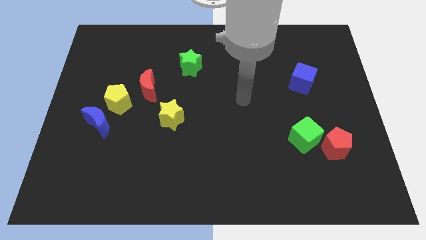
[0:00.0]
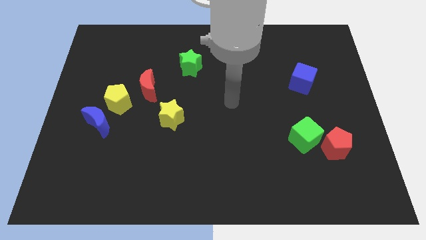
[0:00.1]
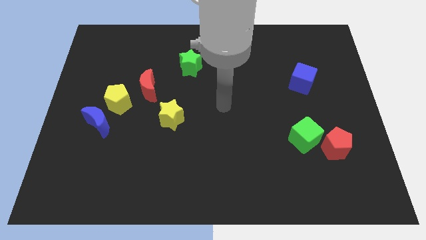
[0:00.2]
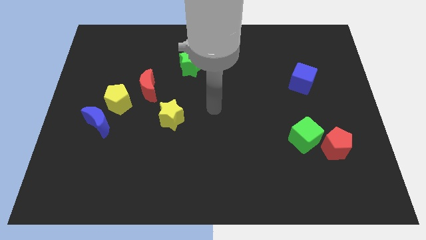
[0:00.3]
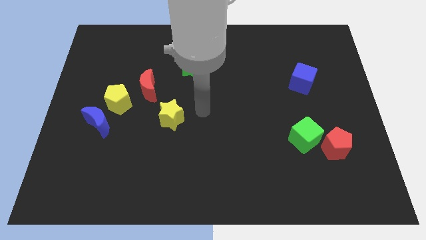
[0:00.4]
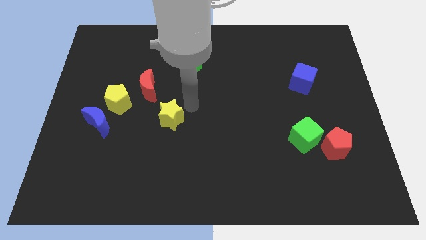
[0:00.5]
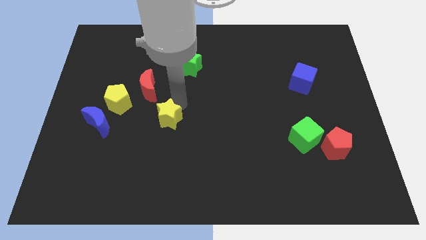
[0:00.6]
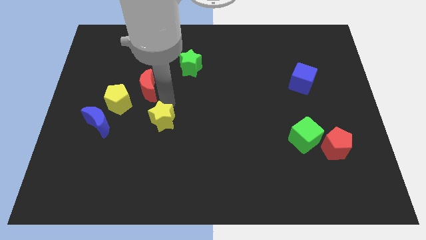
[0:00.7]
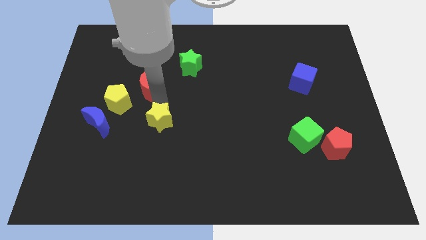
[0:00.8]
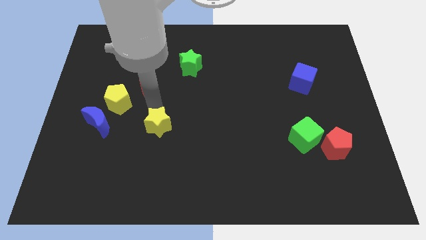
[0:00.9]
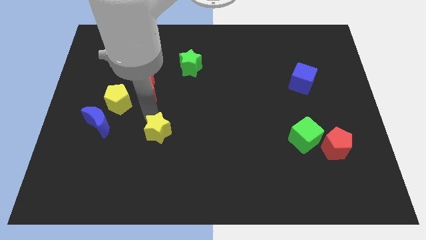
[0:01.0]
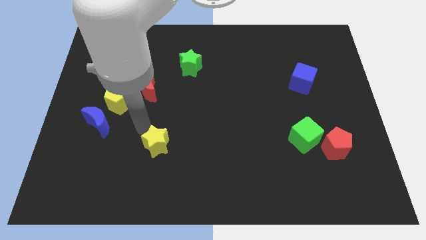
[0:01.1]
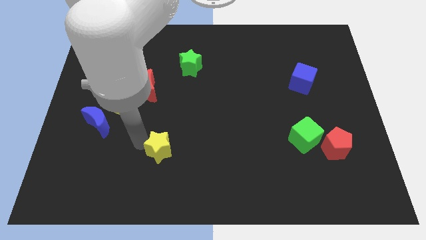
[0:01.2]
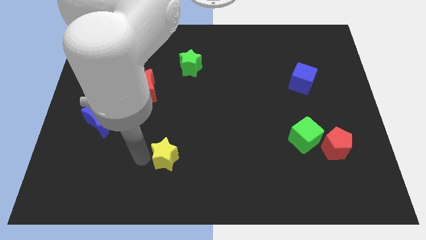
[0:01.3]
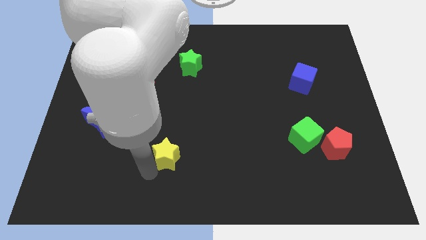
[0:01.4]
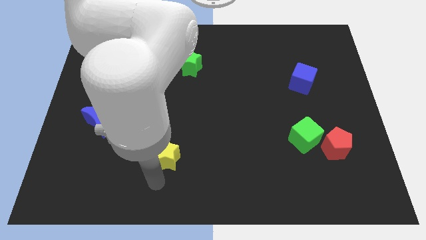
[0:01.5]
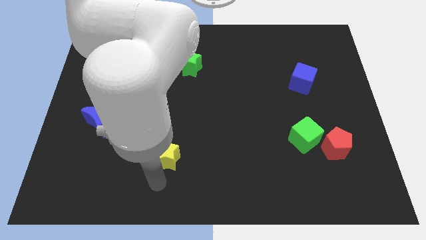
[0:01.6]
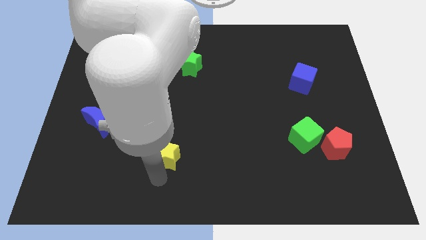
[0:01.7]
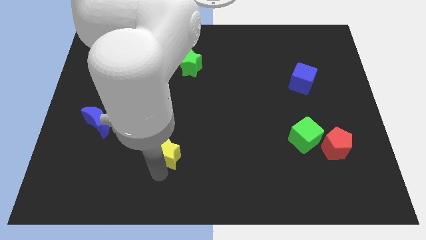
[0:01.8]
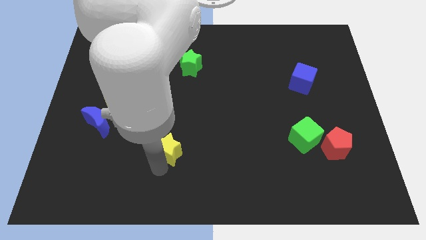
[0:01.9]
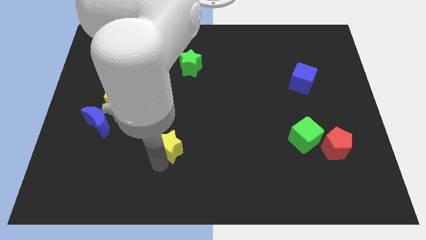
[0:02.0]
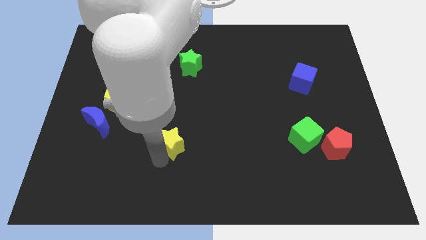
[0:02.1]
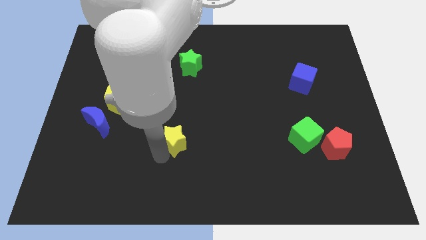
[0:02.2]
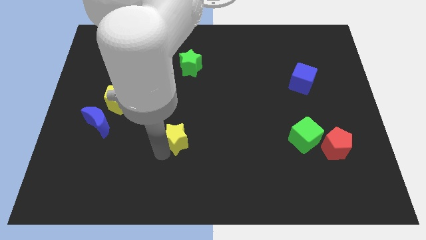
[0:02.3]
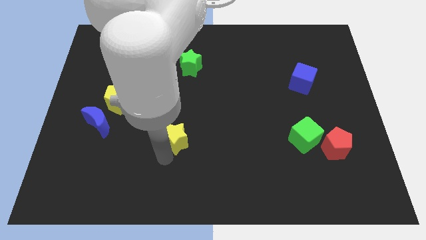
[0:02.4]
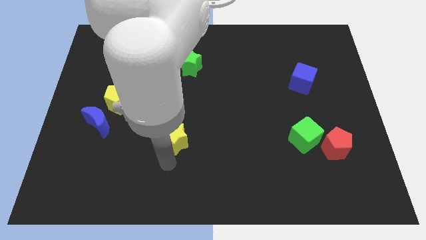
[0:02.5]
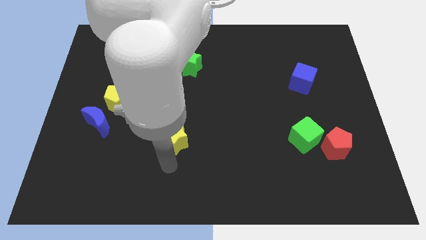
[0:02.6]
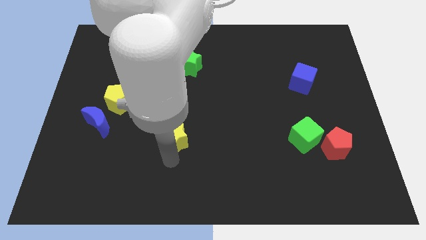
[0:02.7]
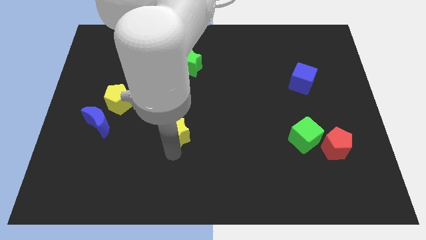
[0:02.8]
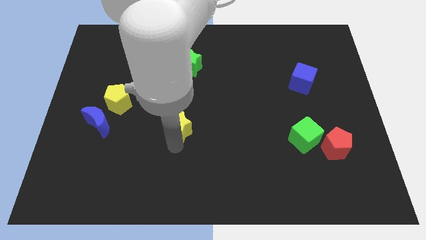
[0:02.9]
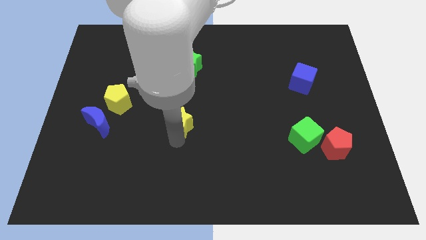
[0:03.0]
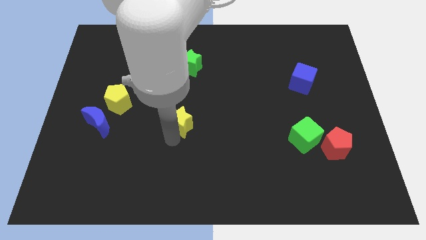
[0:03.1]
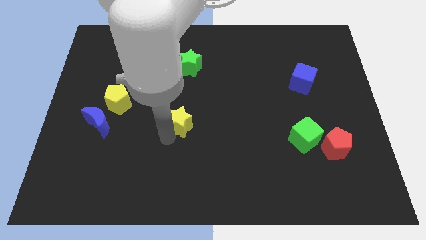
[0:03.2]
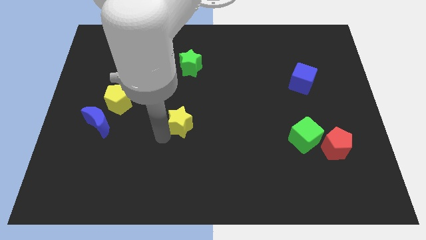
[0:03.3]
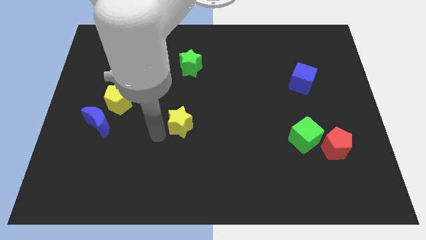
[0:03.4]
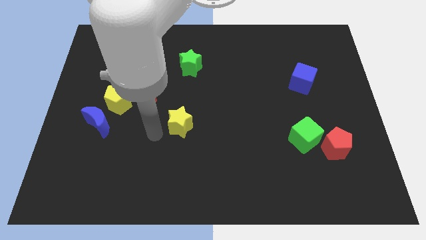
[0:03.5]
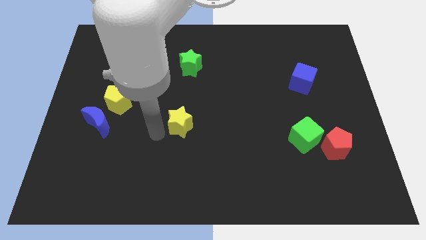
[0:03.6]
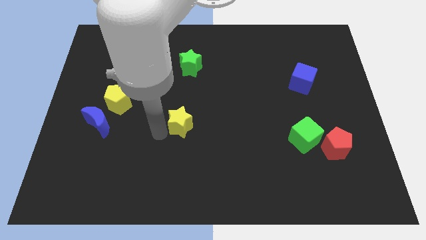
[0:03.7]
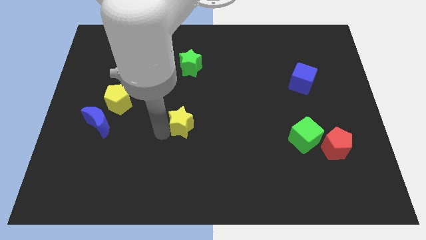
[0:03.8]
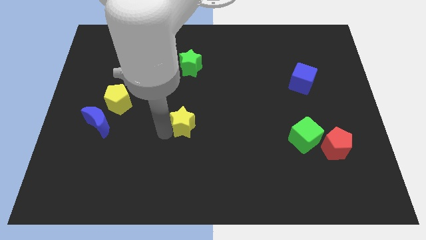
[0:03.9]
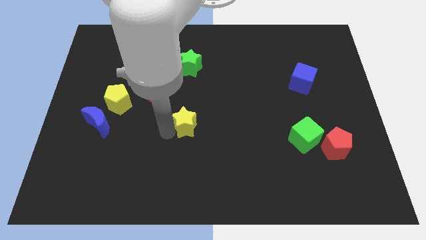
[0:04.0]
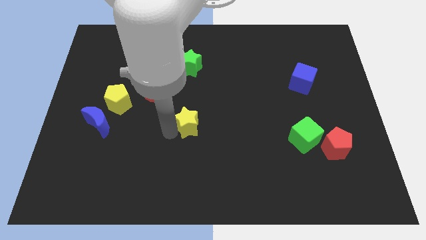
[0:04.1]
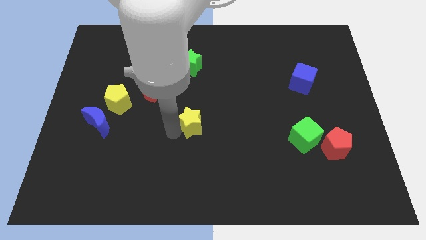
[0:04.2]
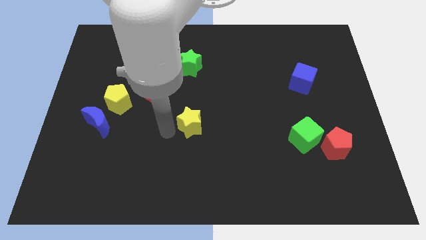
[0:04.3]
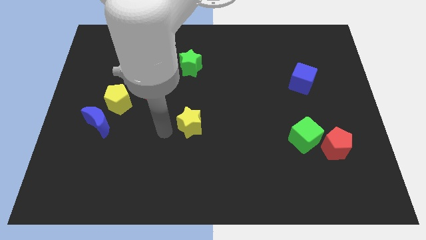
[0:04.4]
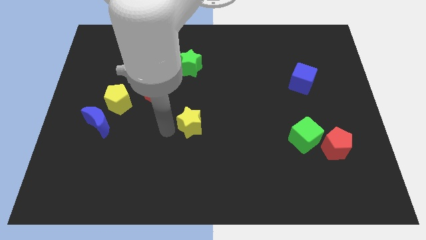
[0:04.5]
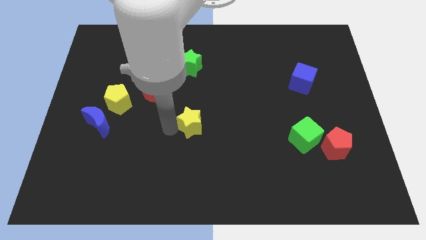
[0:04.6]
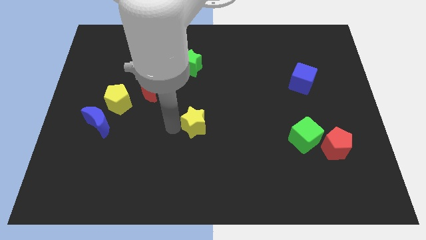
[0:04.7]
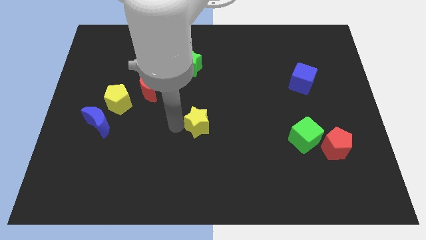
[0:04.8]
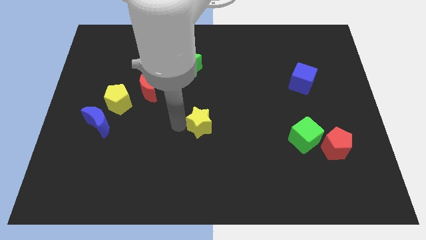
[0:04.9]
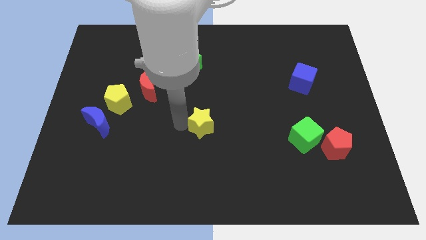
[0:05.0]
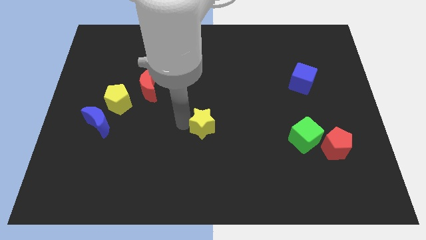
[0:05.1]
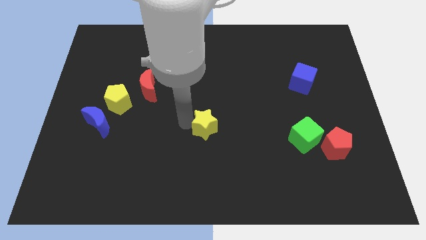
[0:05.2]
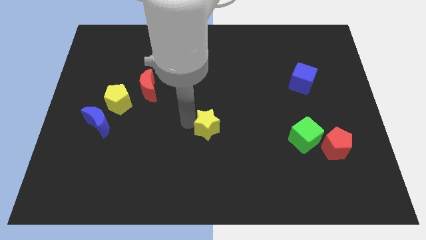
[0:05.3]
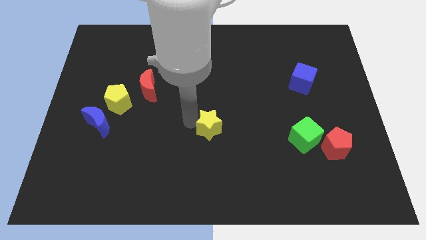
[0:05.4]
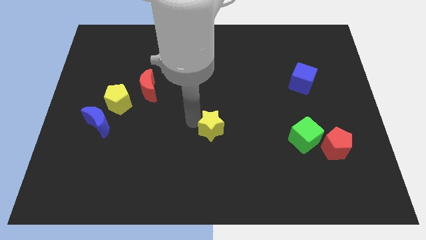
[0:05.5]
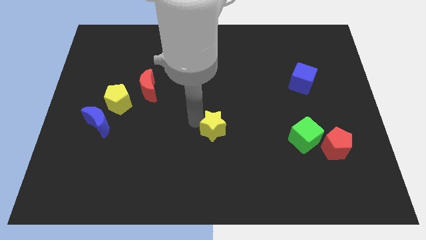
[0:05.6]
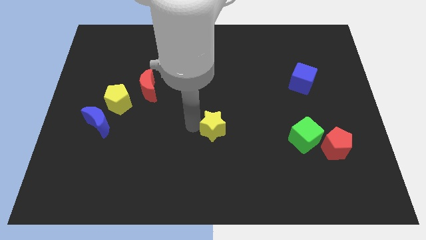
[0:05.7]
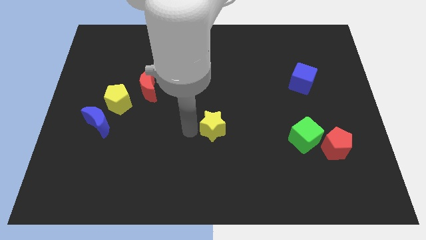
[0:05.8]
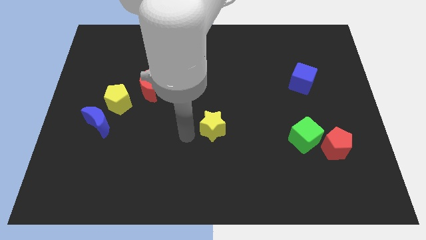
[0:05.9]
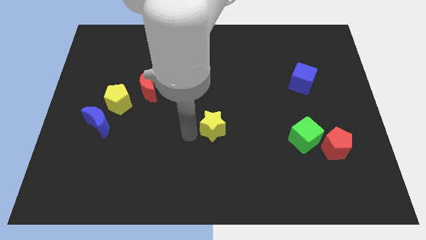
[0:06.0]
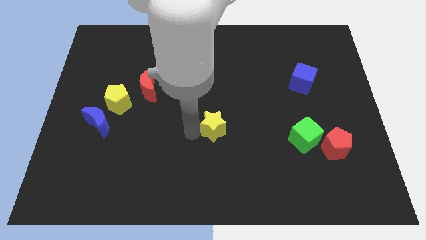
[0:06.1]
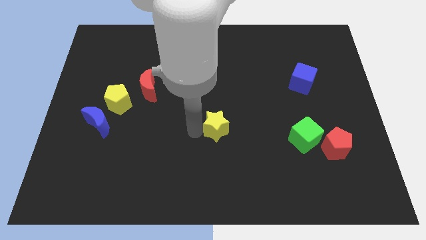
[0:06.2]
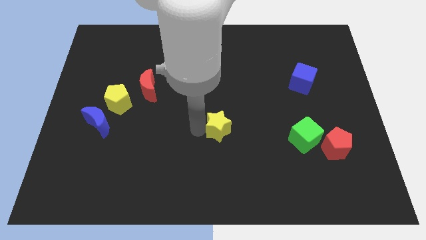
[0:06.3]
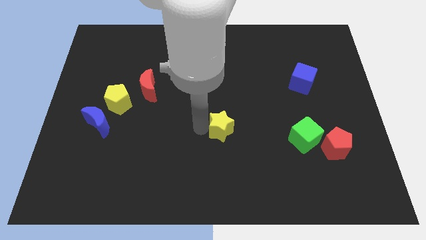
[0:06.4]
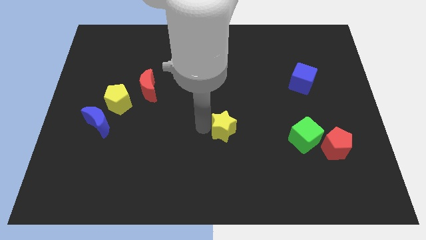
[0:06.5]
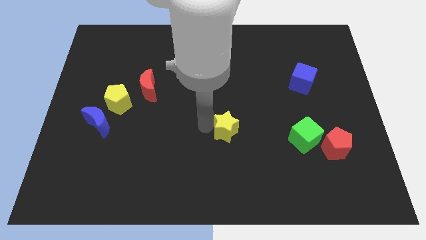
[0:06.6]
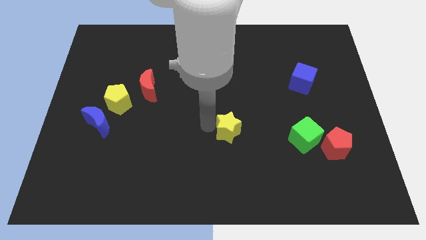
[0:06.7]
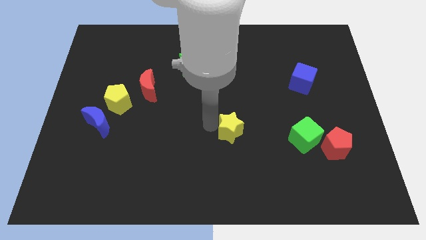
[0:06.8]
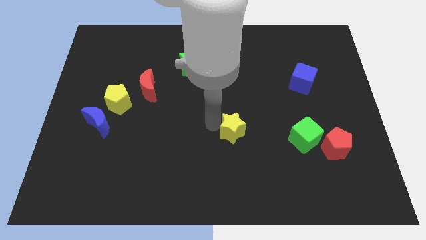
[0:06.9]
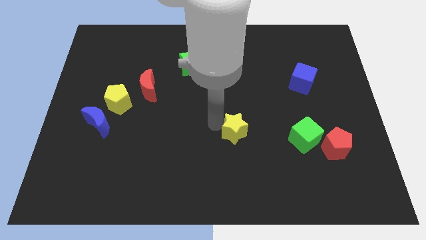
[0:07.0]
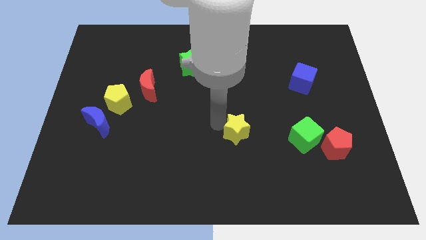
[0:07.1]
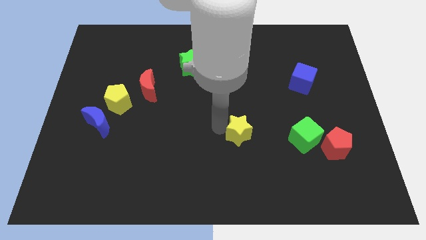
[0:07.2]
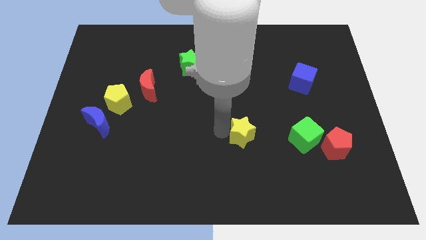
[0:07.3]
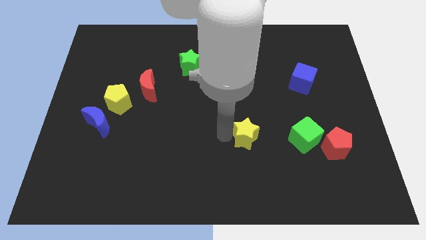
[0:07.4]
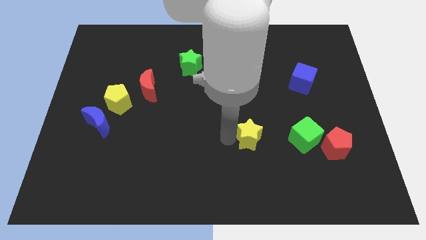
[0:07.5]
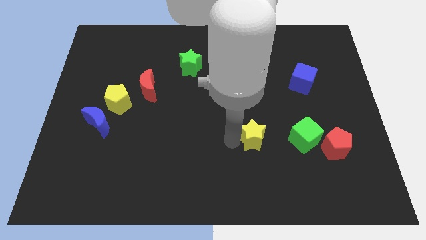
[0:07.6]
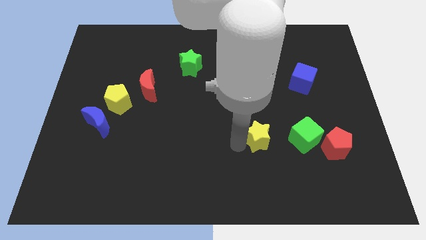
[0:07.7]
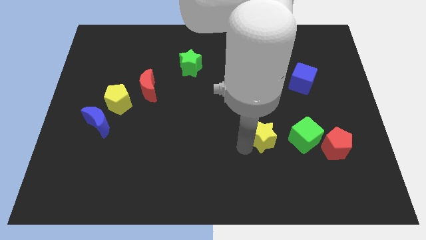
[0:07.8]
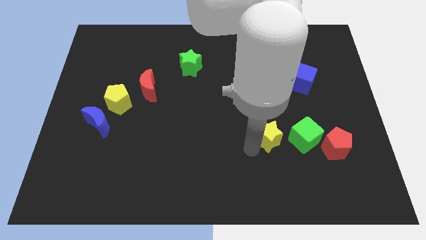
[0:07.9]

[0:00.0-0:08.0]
push the yellow star to the right

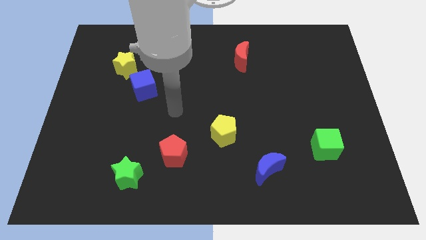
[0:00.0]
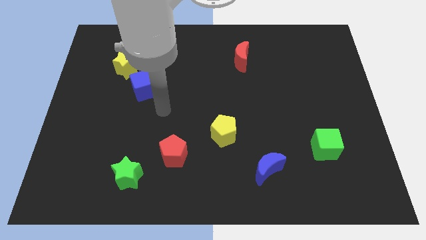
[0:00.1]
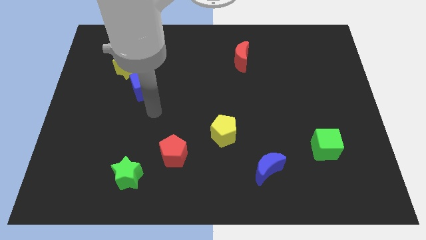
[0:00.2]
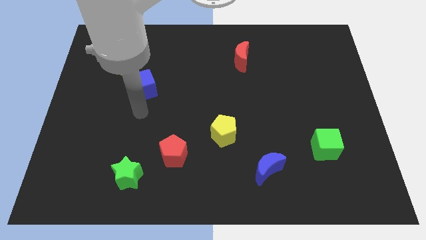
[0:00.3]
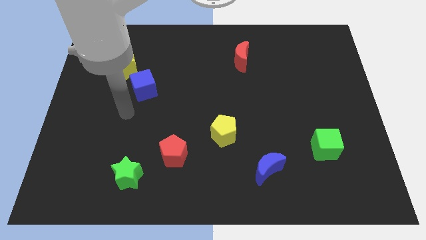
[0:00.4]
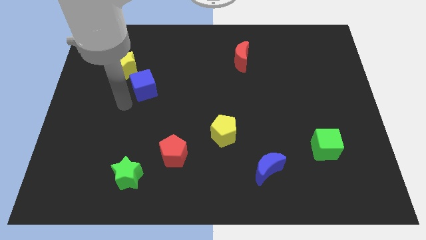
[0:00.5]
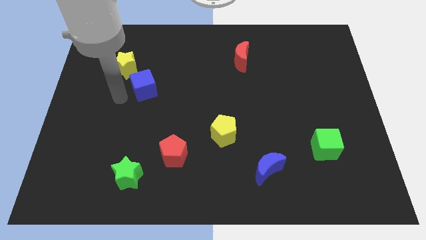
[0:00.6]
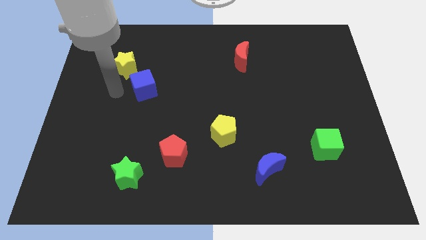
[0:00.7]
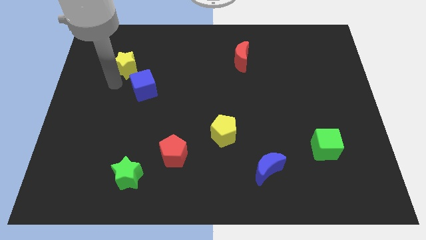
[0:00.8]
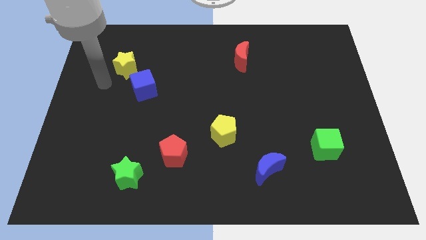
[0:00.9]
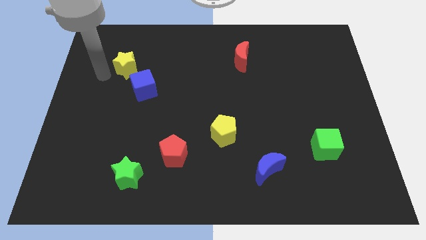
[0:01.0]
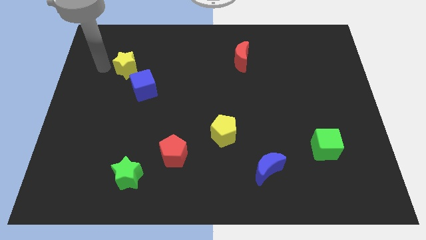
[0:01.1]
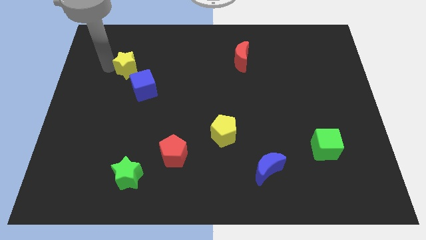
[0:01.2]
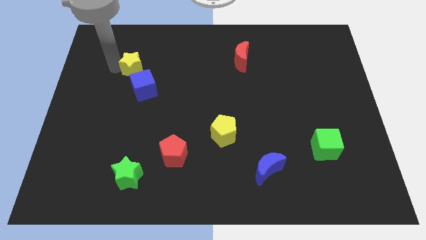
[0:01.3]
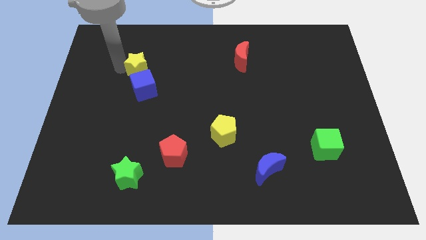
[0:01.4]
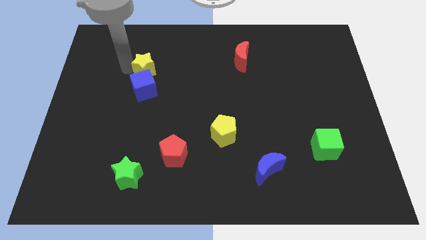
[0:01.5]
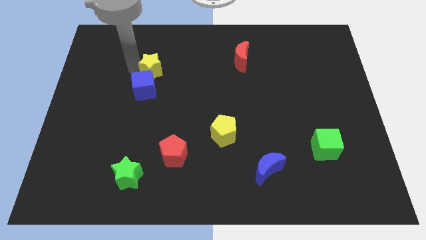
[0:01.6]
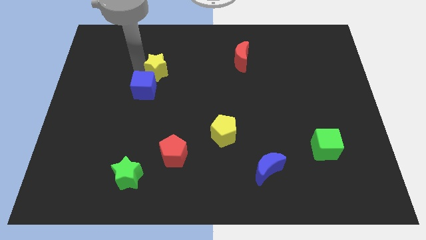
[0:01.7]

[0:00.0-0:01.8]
push the yellow star right a little bit
